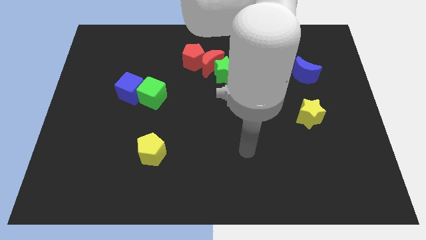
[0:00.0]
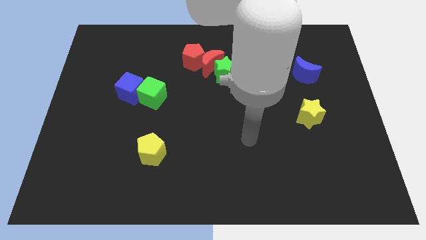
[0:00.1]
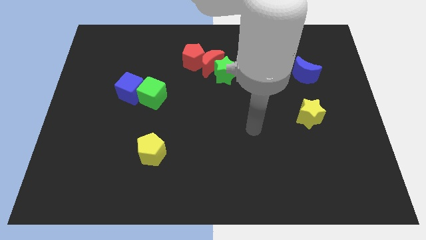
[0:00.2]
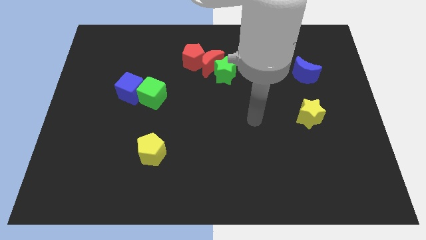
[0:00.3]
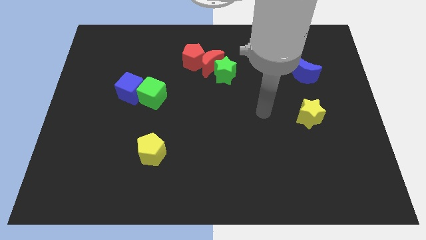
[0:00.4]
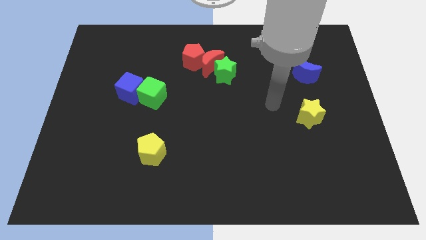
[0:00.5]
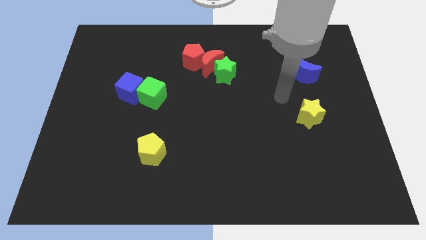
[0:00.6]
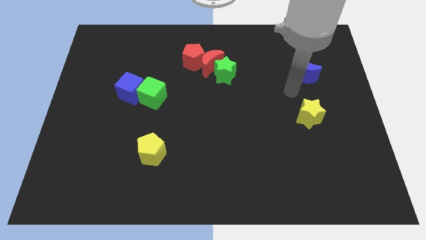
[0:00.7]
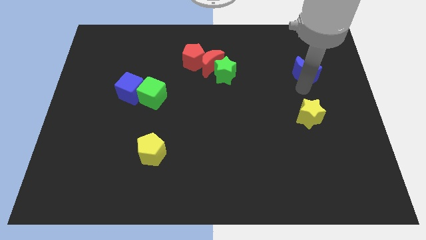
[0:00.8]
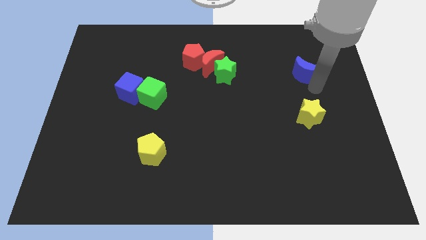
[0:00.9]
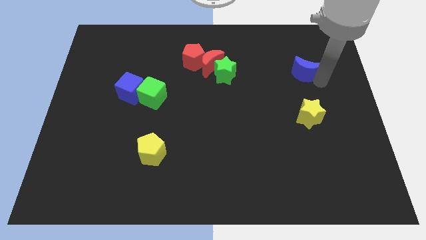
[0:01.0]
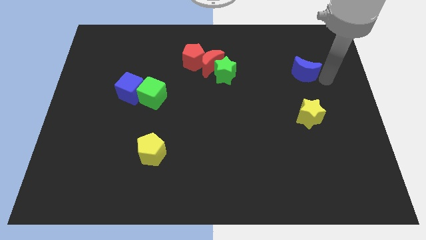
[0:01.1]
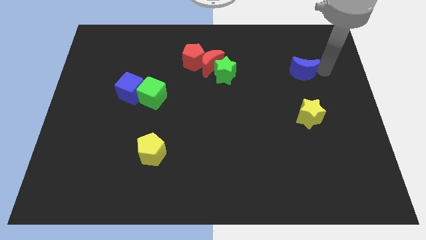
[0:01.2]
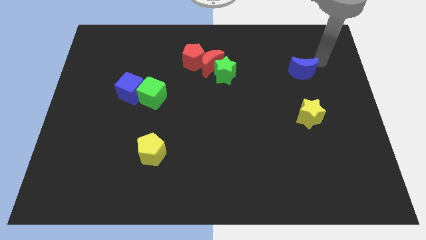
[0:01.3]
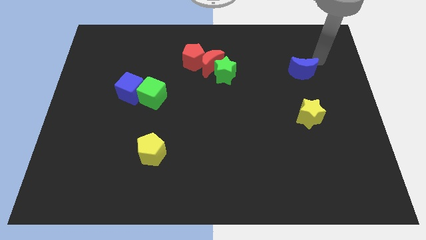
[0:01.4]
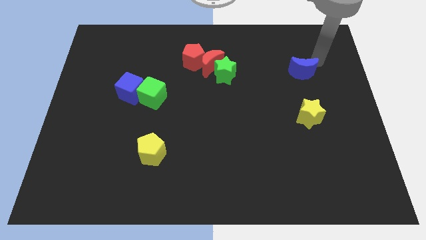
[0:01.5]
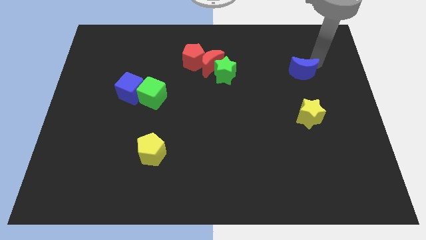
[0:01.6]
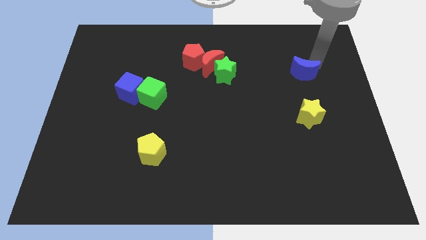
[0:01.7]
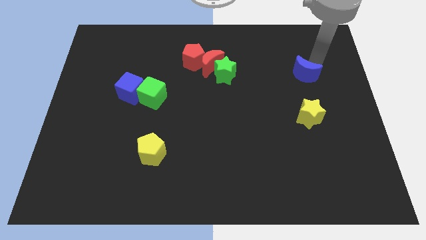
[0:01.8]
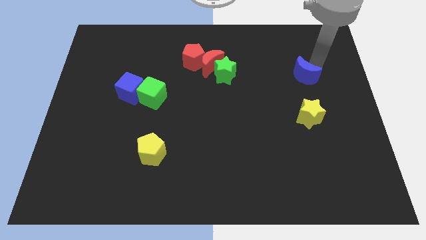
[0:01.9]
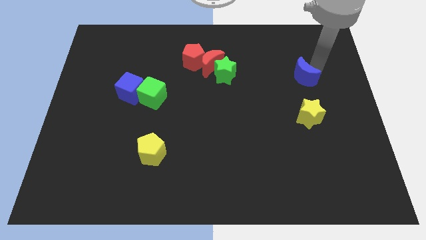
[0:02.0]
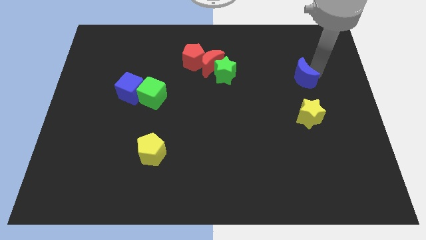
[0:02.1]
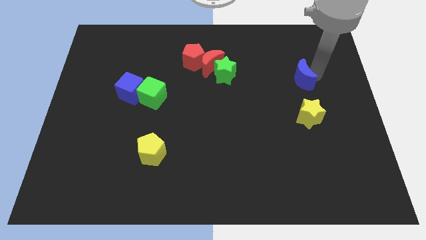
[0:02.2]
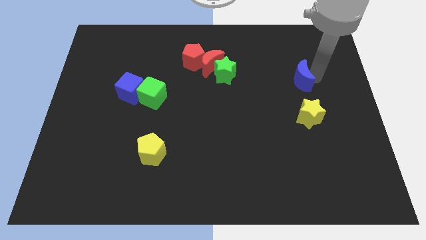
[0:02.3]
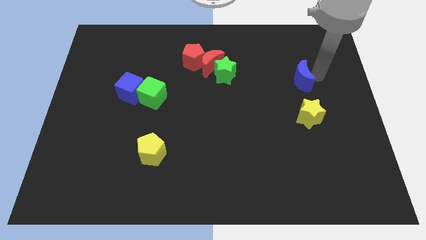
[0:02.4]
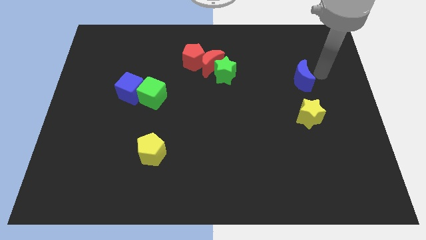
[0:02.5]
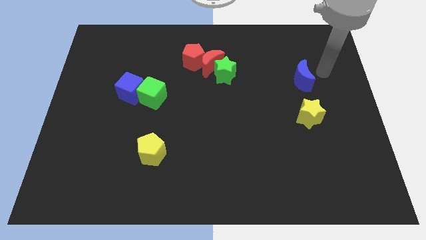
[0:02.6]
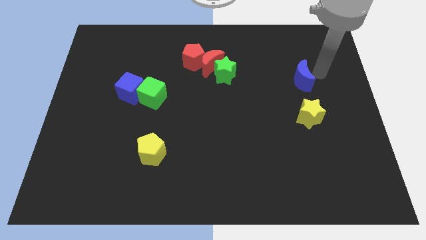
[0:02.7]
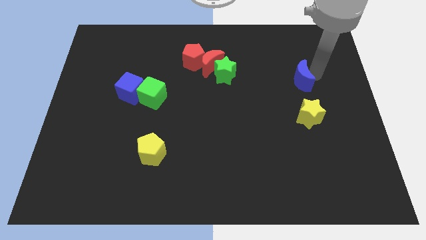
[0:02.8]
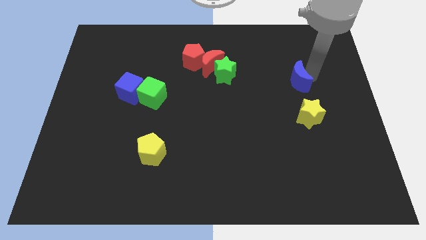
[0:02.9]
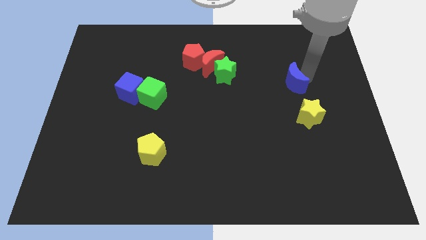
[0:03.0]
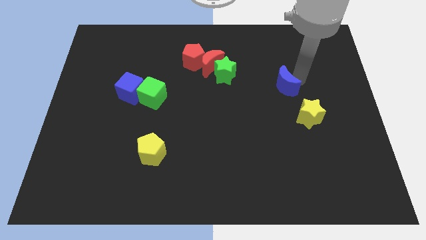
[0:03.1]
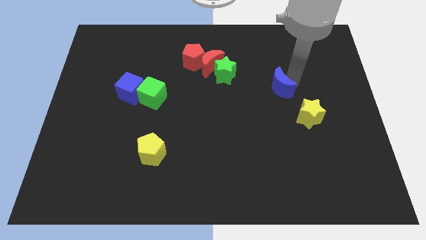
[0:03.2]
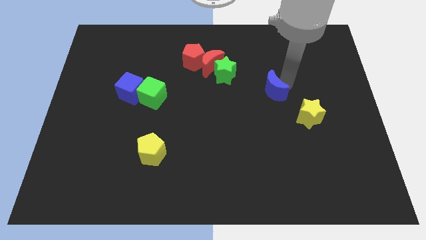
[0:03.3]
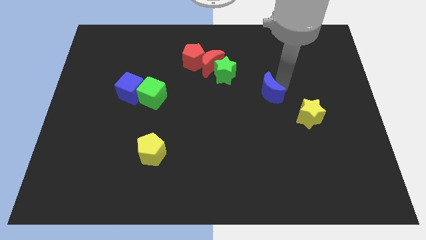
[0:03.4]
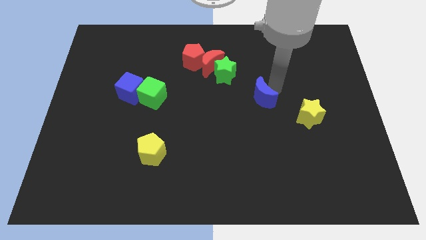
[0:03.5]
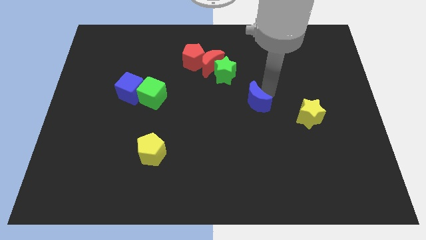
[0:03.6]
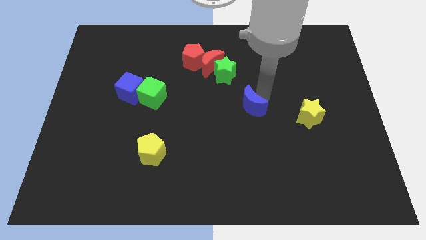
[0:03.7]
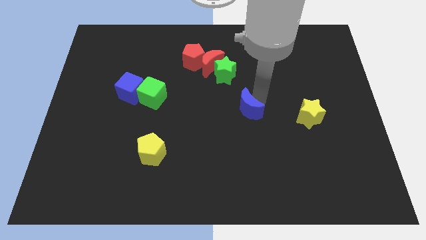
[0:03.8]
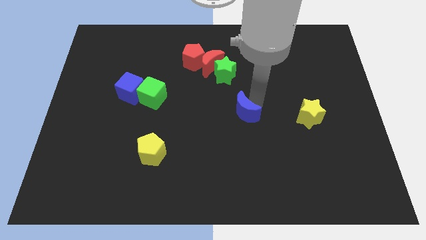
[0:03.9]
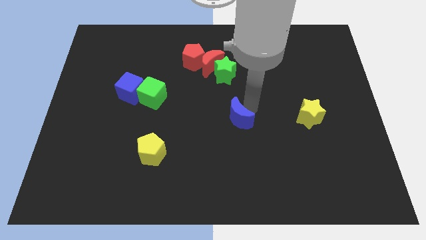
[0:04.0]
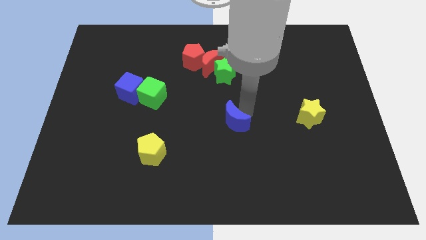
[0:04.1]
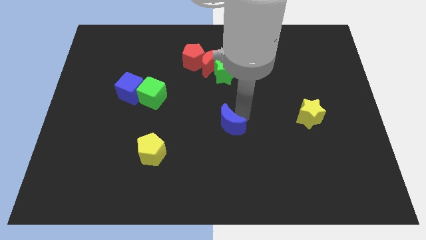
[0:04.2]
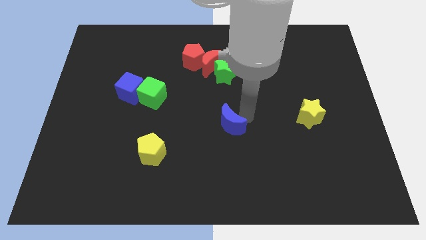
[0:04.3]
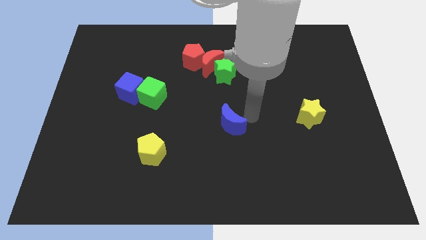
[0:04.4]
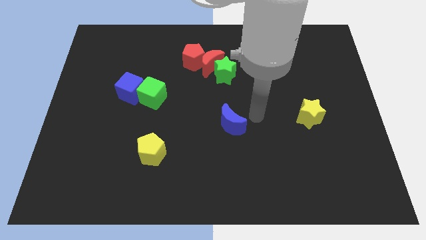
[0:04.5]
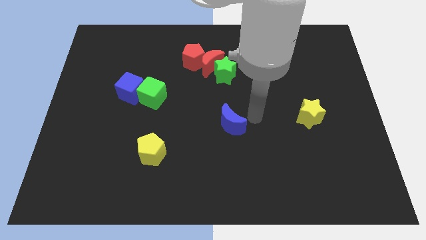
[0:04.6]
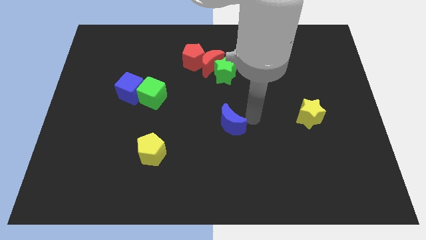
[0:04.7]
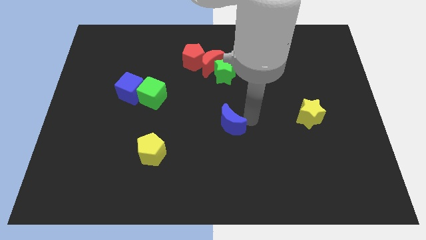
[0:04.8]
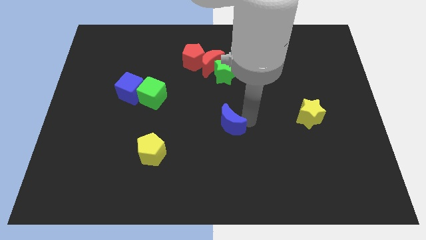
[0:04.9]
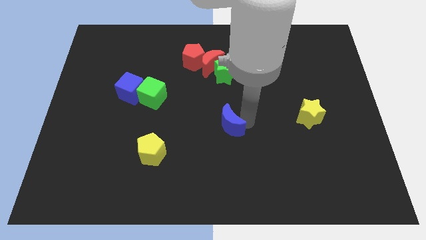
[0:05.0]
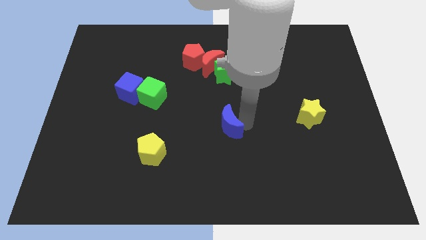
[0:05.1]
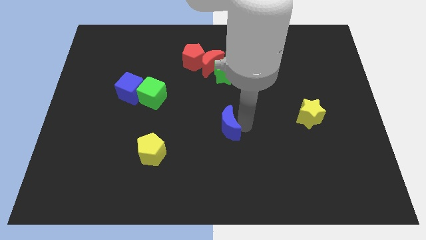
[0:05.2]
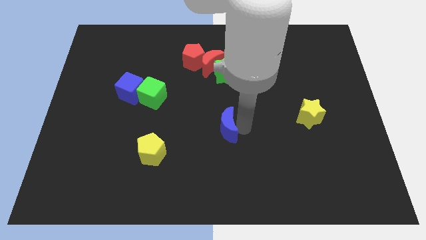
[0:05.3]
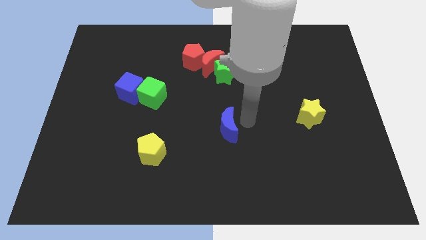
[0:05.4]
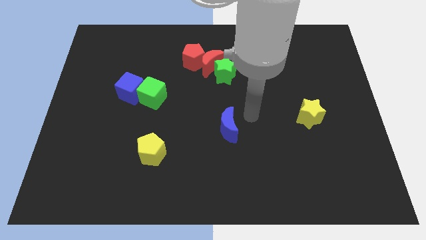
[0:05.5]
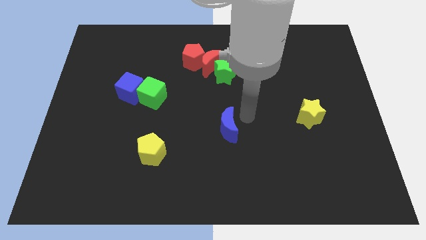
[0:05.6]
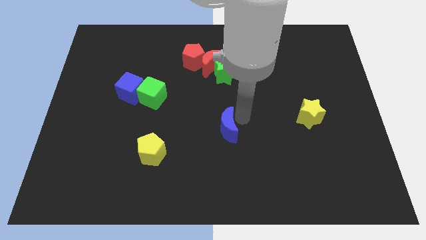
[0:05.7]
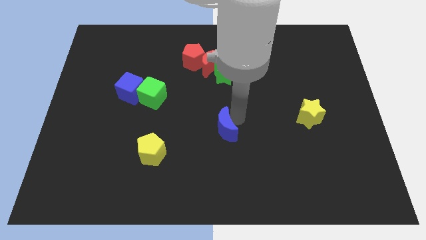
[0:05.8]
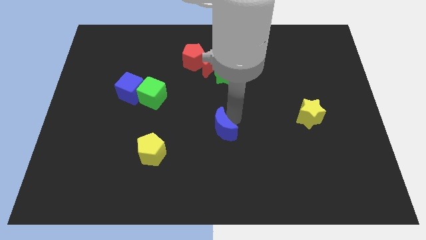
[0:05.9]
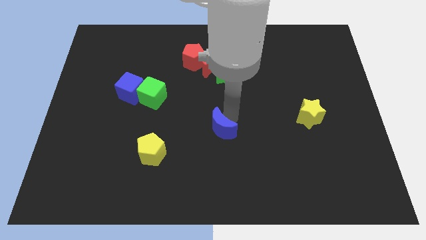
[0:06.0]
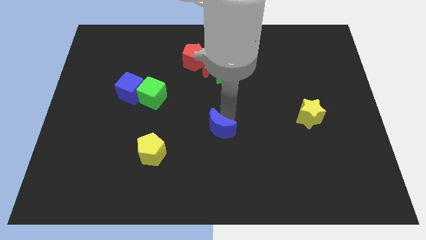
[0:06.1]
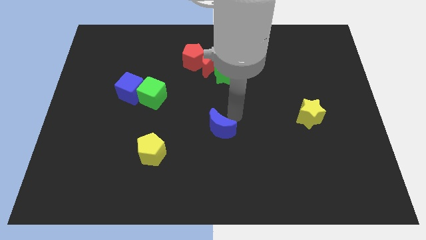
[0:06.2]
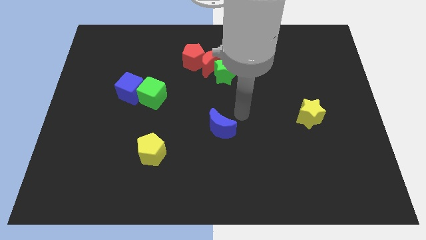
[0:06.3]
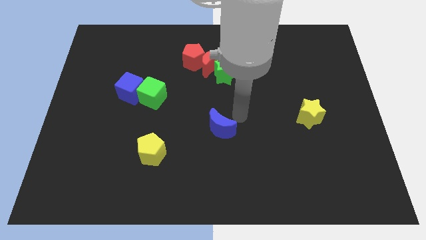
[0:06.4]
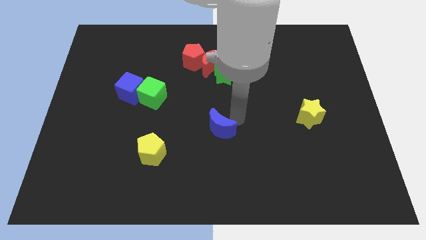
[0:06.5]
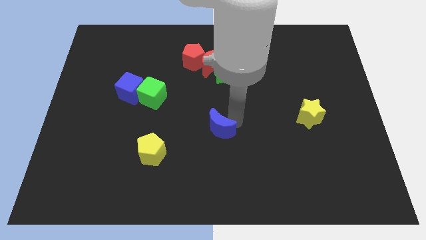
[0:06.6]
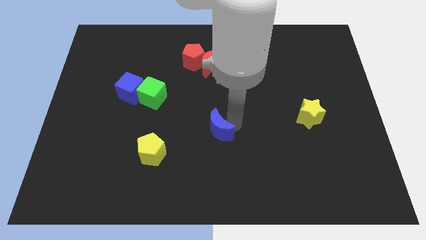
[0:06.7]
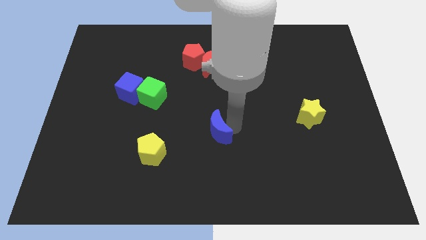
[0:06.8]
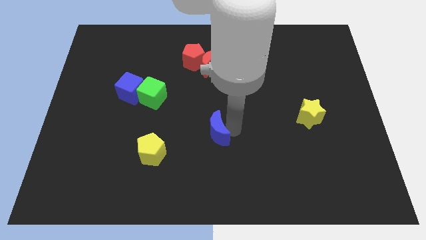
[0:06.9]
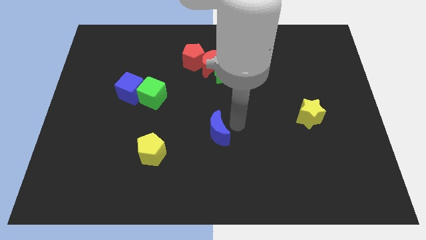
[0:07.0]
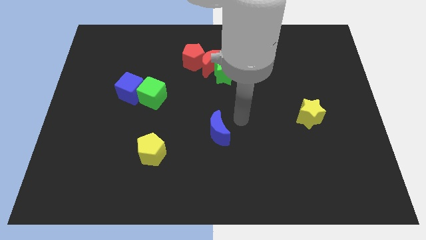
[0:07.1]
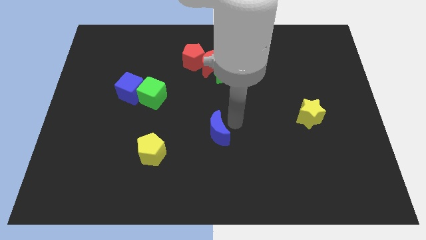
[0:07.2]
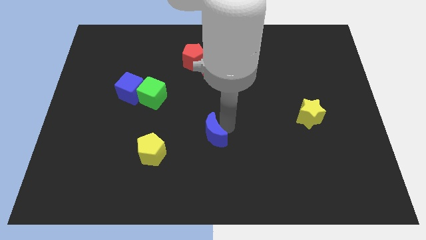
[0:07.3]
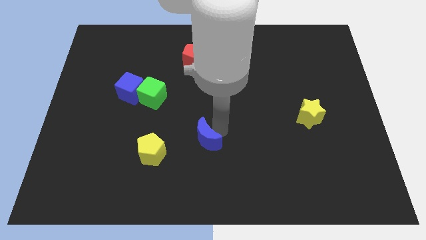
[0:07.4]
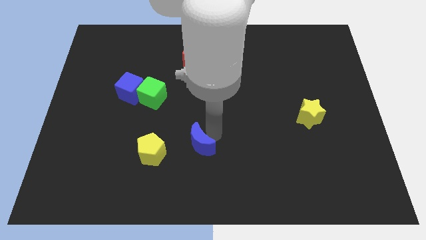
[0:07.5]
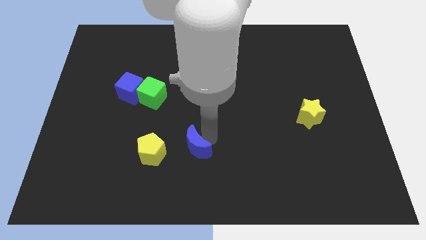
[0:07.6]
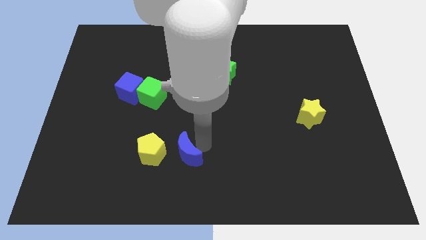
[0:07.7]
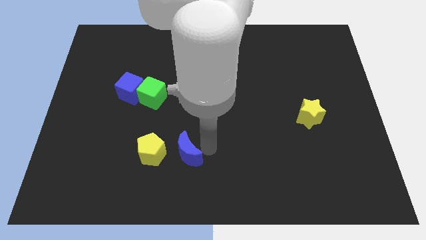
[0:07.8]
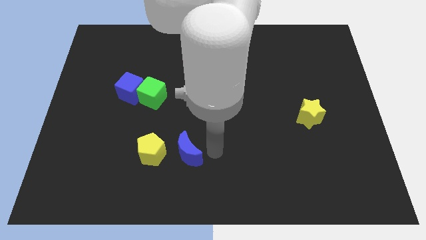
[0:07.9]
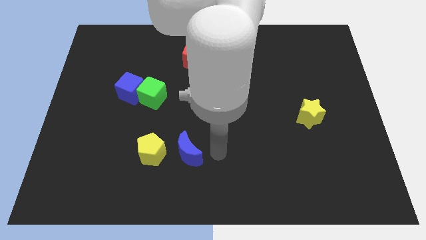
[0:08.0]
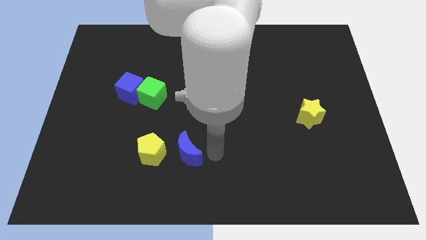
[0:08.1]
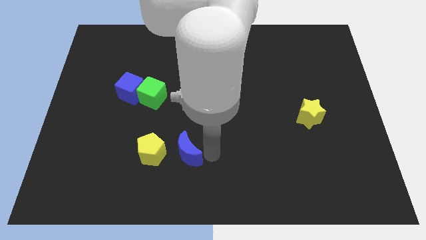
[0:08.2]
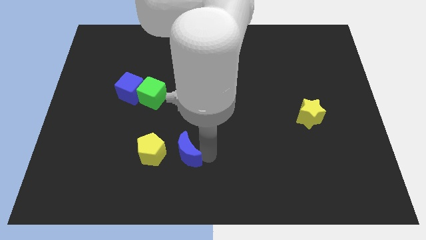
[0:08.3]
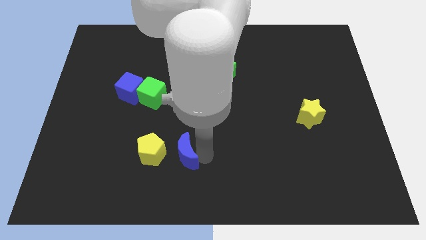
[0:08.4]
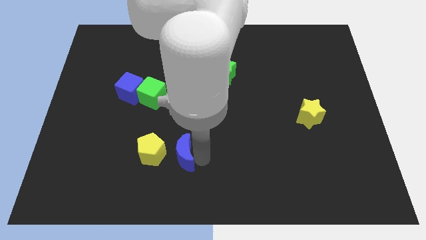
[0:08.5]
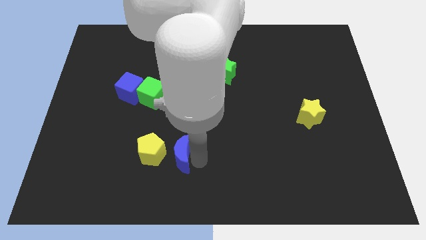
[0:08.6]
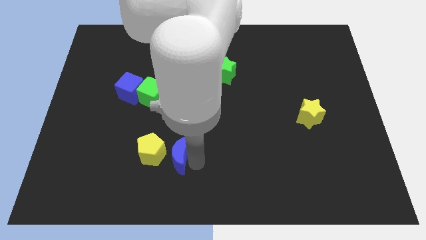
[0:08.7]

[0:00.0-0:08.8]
put the blue moon to the yellow pentagon
